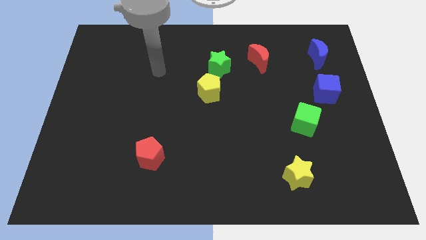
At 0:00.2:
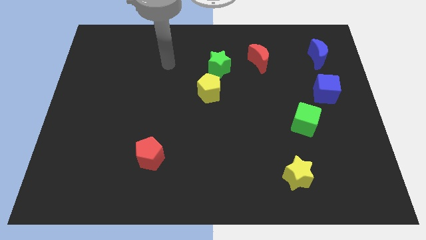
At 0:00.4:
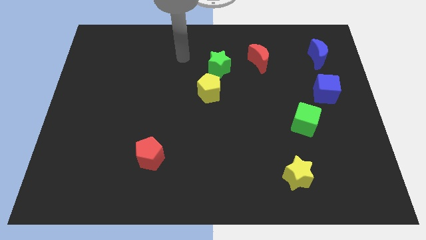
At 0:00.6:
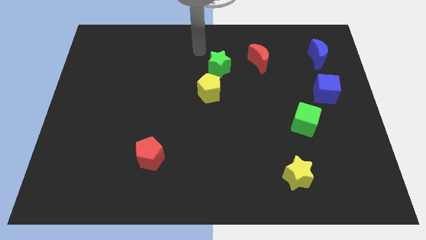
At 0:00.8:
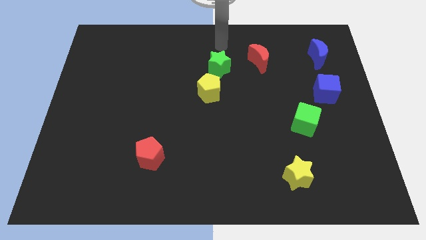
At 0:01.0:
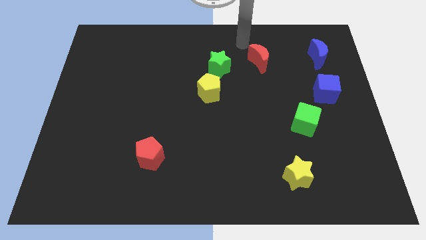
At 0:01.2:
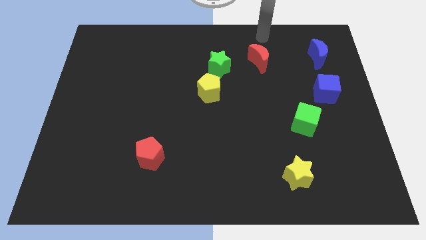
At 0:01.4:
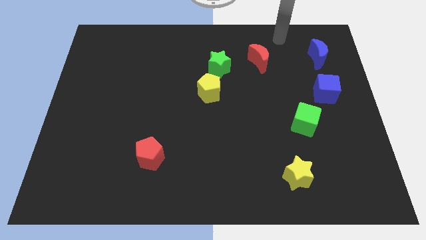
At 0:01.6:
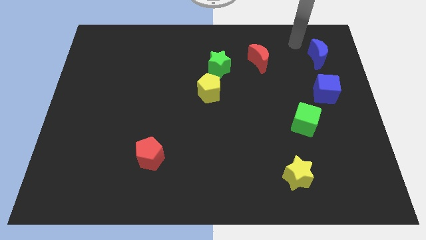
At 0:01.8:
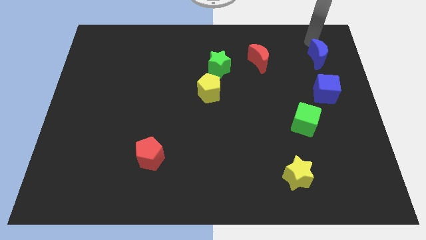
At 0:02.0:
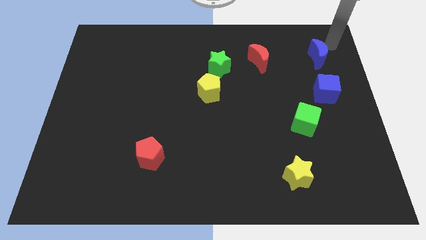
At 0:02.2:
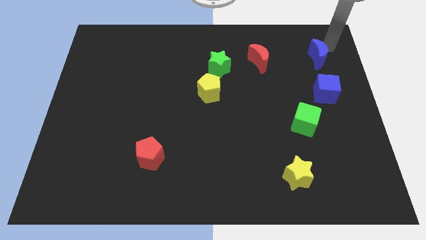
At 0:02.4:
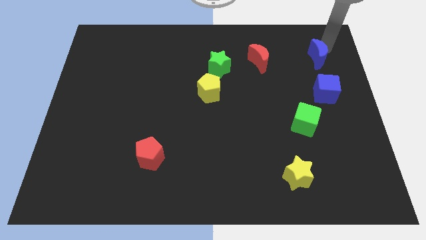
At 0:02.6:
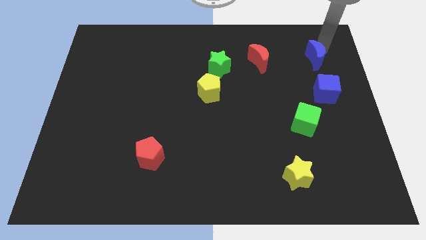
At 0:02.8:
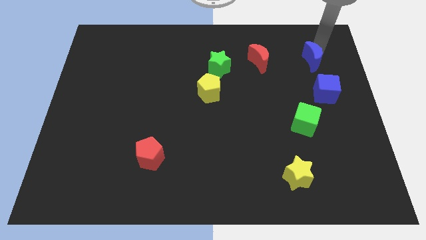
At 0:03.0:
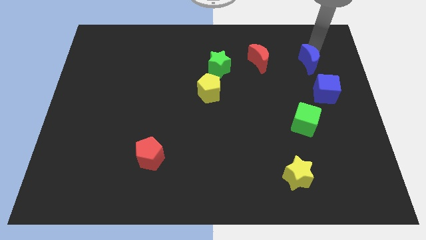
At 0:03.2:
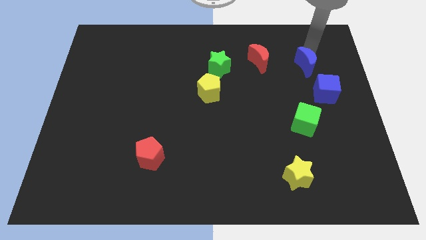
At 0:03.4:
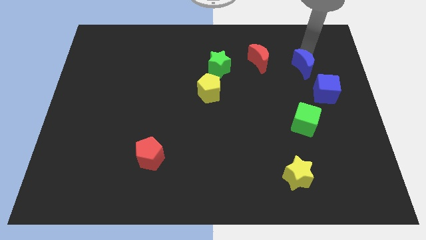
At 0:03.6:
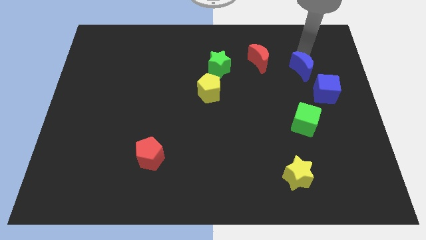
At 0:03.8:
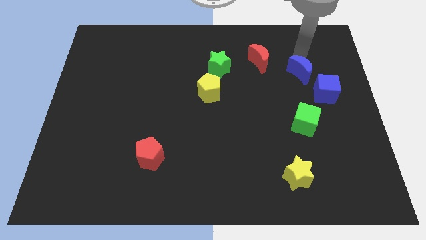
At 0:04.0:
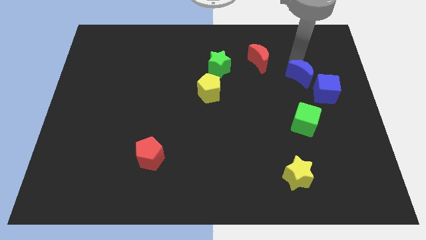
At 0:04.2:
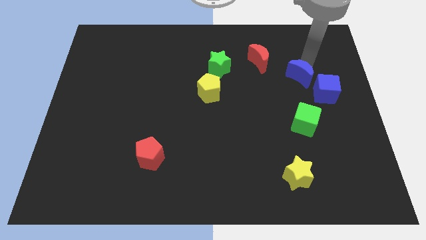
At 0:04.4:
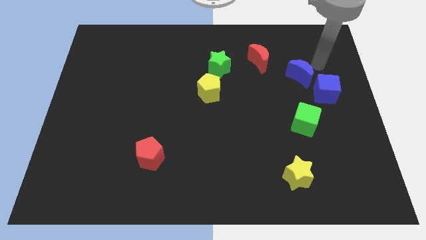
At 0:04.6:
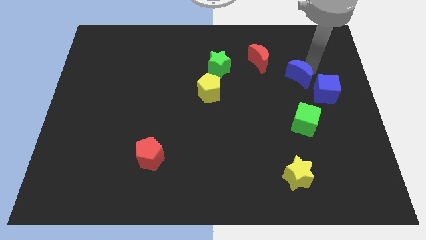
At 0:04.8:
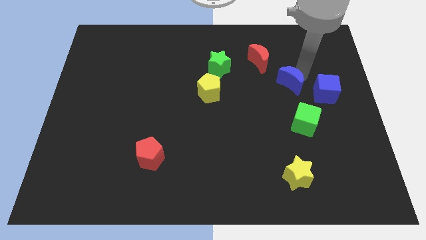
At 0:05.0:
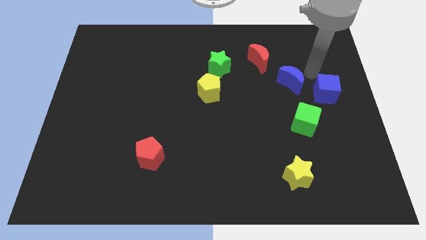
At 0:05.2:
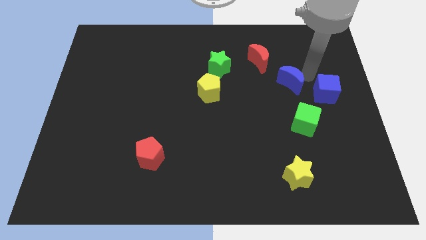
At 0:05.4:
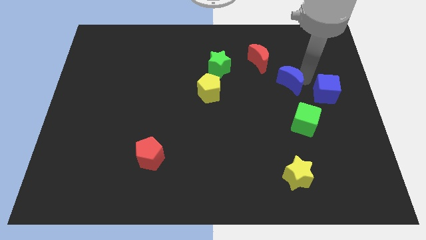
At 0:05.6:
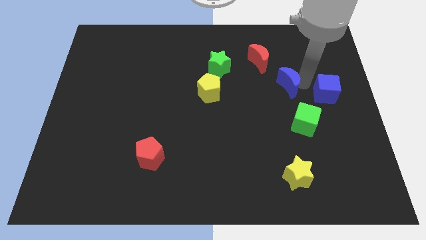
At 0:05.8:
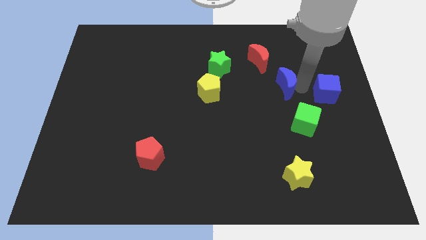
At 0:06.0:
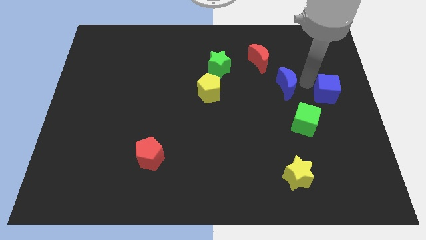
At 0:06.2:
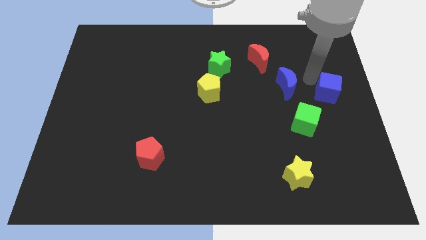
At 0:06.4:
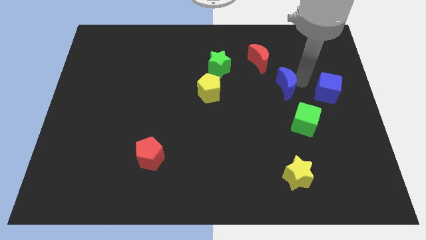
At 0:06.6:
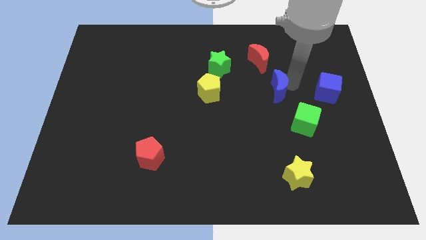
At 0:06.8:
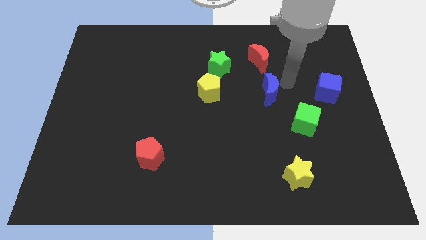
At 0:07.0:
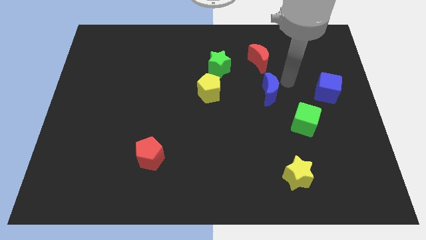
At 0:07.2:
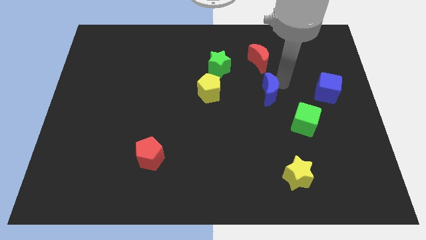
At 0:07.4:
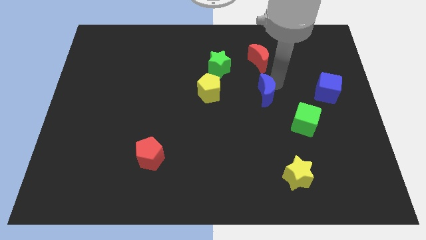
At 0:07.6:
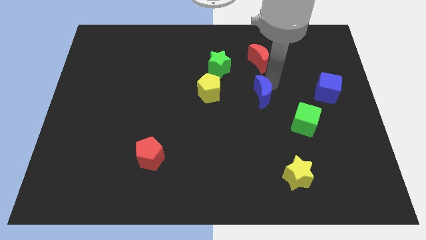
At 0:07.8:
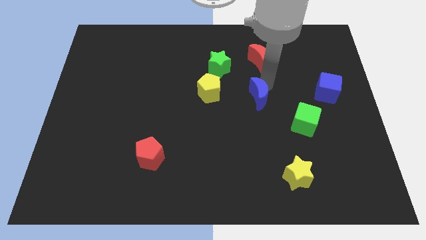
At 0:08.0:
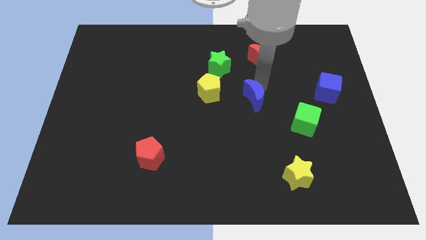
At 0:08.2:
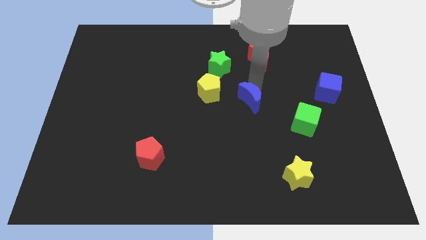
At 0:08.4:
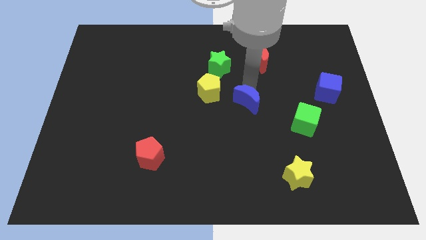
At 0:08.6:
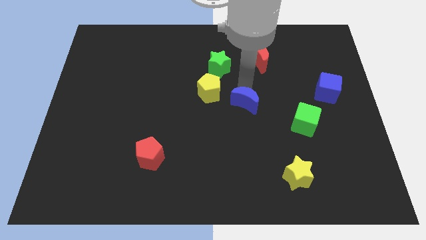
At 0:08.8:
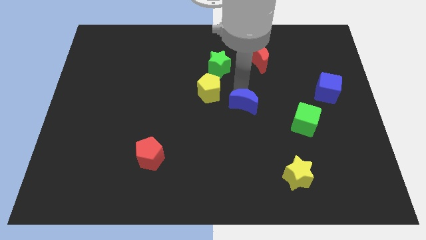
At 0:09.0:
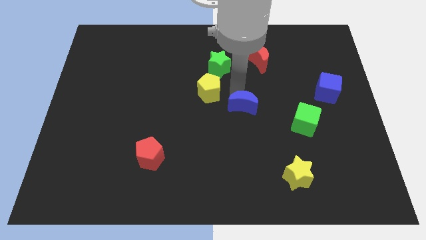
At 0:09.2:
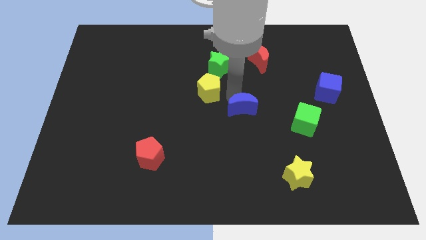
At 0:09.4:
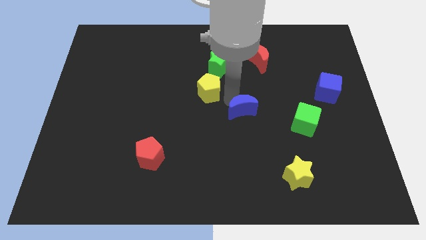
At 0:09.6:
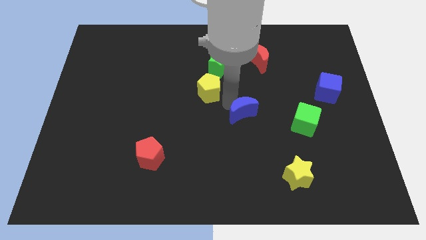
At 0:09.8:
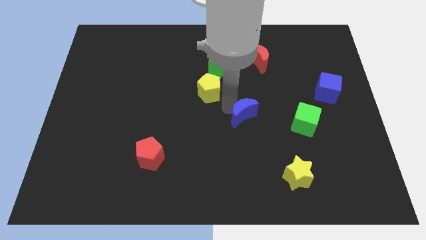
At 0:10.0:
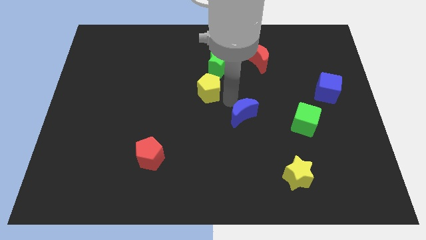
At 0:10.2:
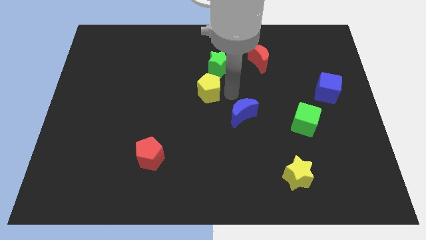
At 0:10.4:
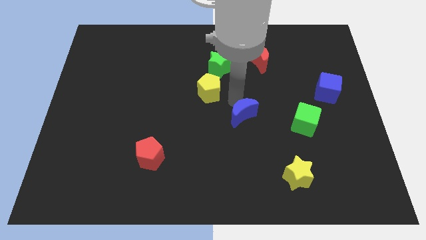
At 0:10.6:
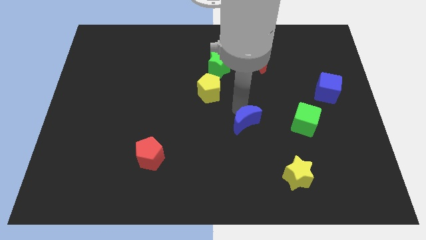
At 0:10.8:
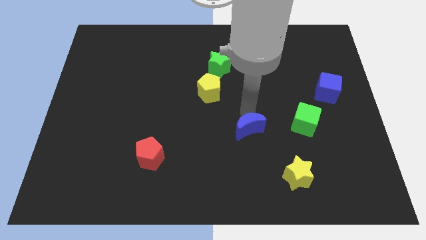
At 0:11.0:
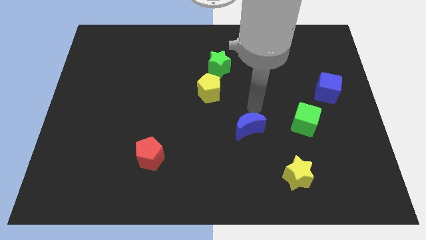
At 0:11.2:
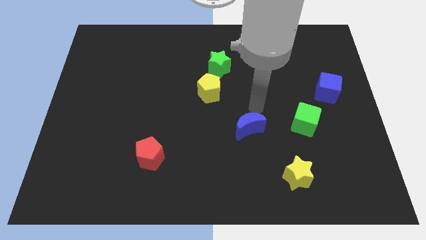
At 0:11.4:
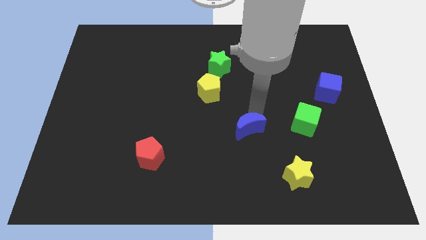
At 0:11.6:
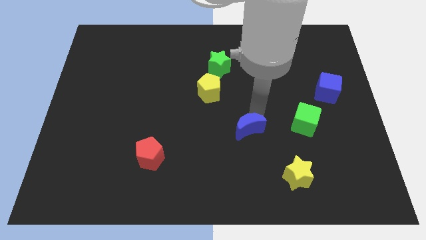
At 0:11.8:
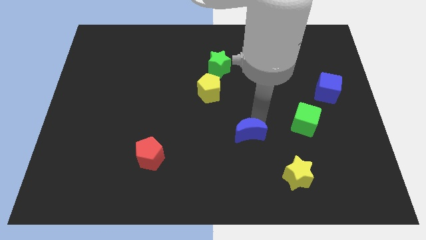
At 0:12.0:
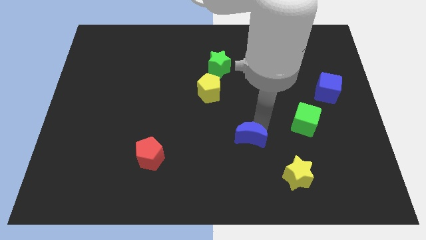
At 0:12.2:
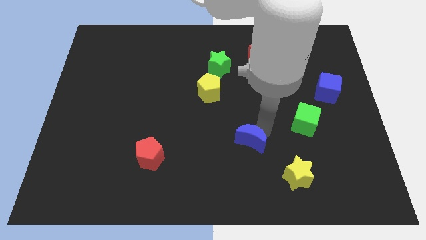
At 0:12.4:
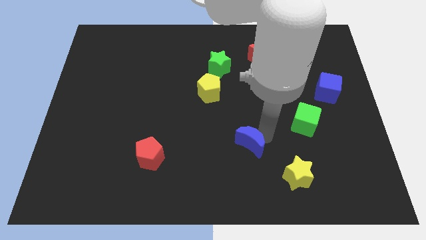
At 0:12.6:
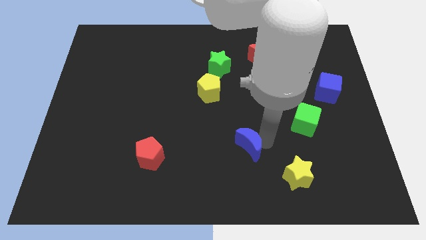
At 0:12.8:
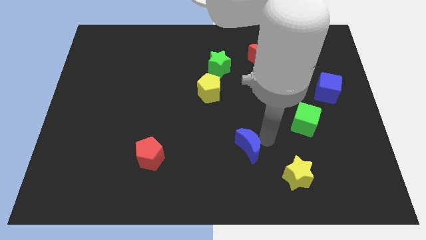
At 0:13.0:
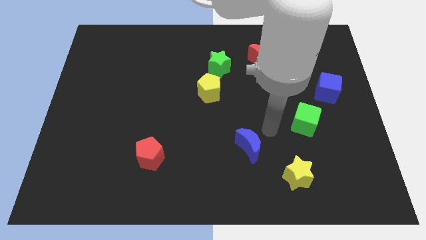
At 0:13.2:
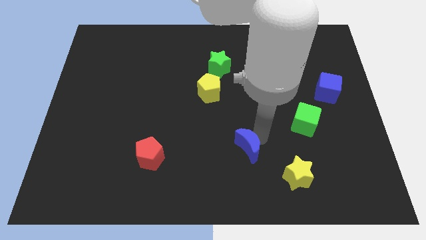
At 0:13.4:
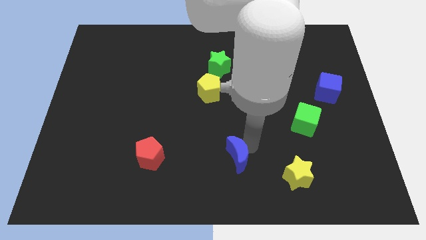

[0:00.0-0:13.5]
put the blue moon to the bottom
